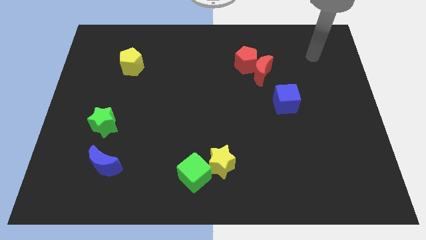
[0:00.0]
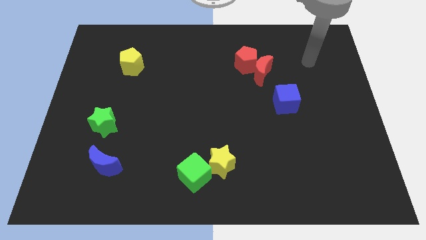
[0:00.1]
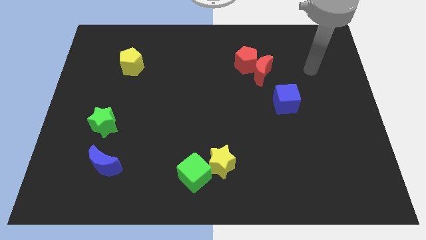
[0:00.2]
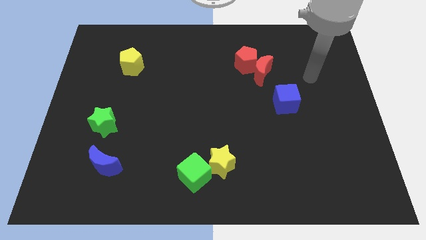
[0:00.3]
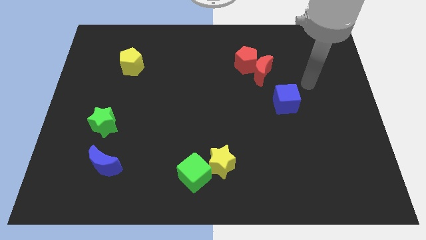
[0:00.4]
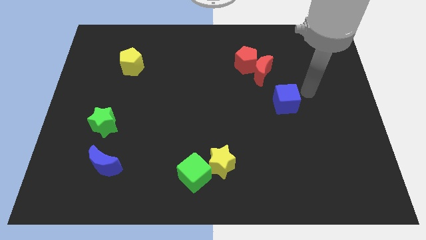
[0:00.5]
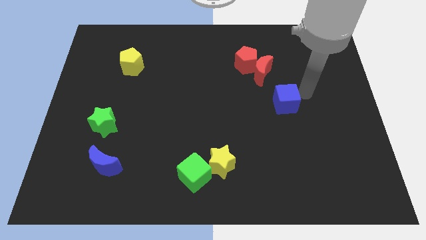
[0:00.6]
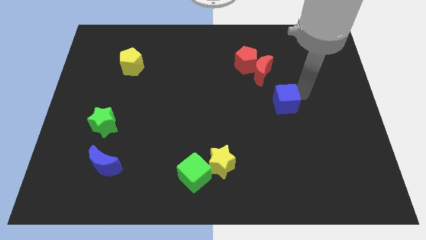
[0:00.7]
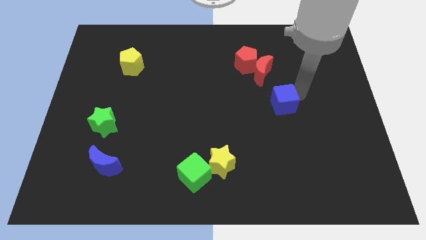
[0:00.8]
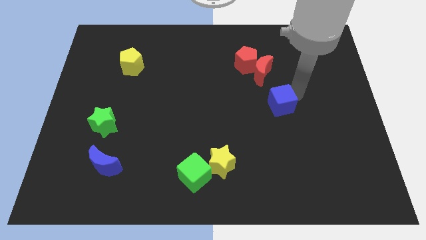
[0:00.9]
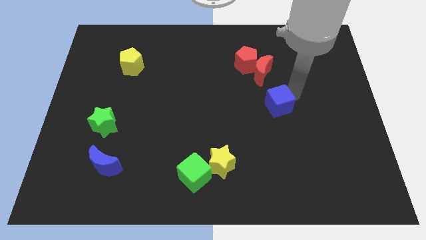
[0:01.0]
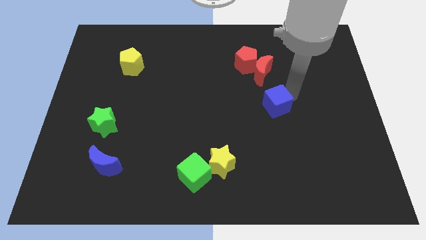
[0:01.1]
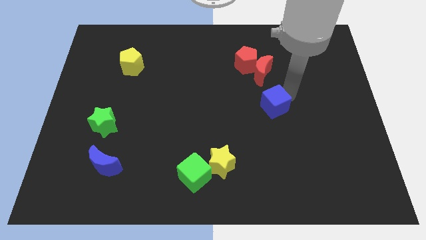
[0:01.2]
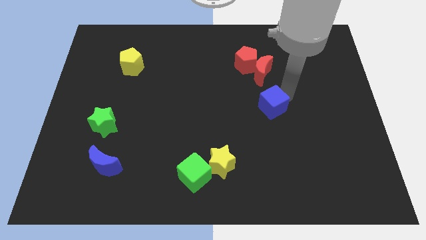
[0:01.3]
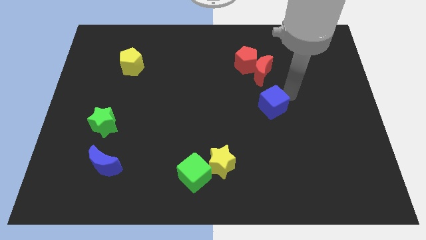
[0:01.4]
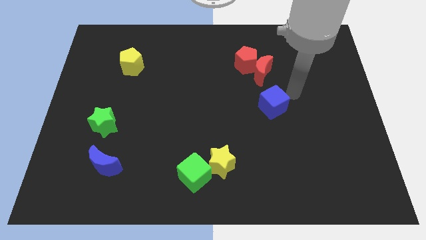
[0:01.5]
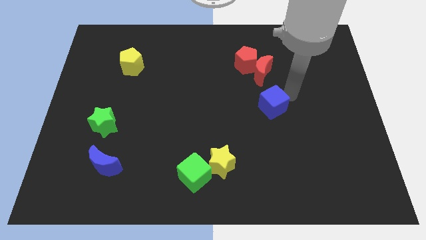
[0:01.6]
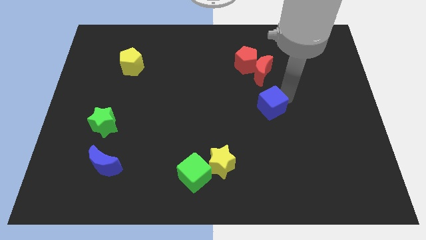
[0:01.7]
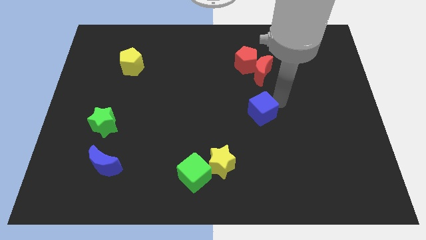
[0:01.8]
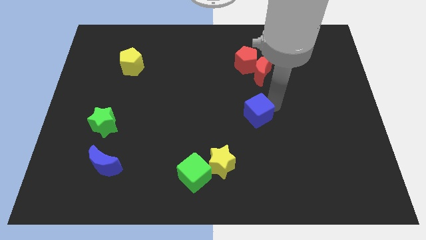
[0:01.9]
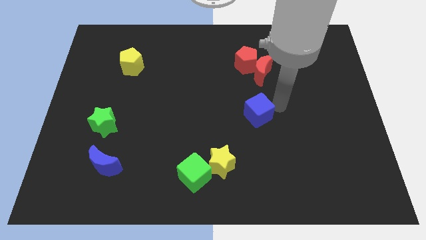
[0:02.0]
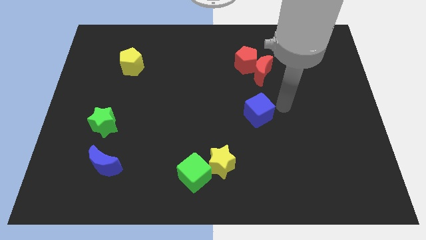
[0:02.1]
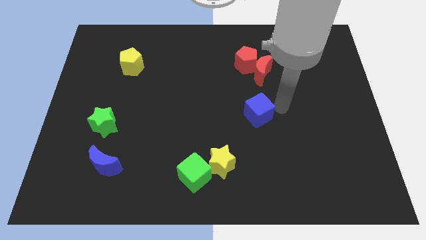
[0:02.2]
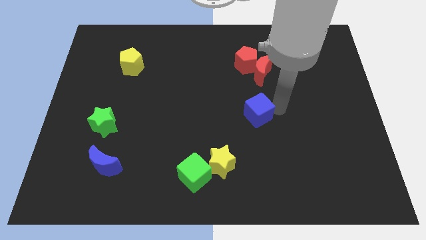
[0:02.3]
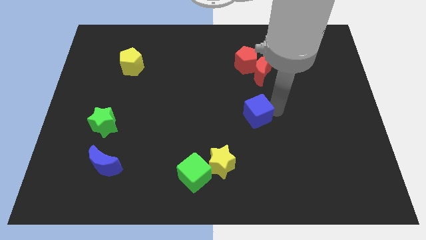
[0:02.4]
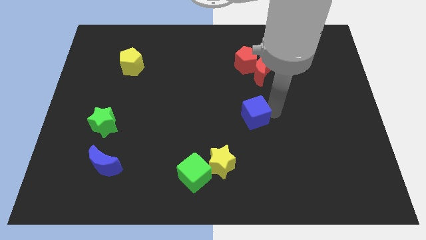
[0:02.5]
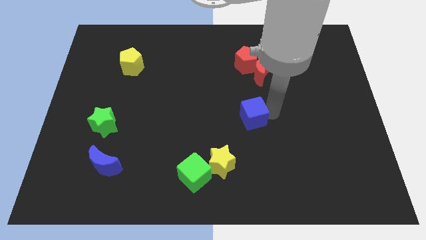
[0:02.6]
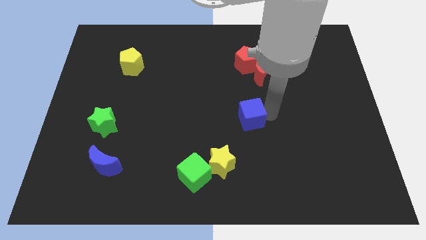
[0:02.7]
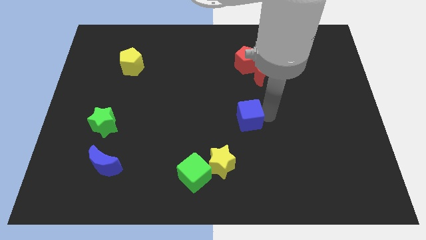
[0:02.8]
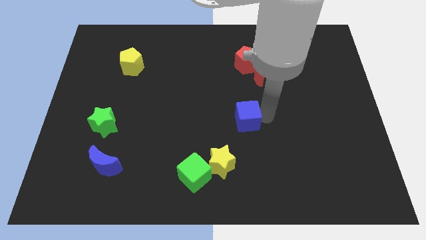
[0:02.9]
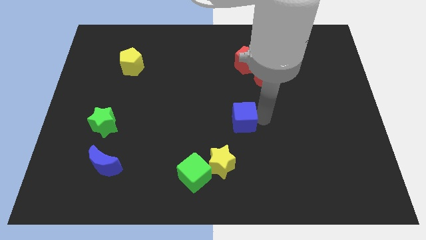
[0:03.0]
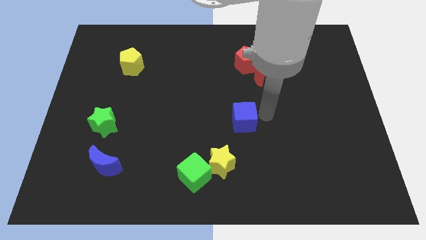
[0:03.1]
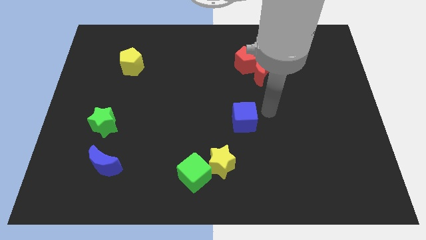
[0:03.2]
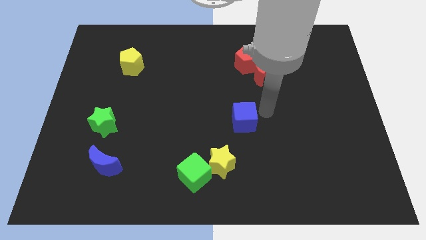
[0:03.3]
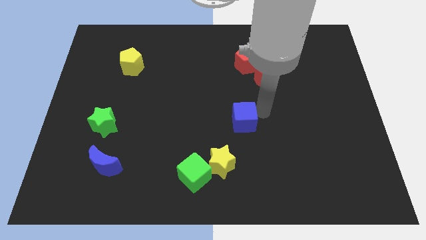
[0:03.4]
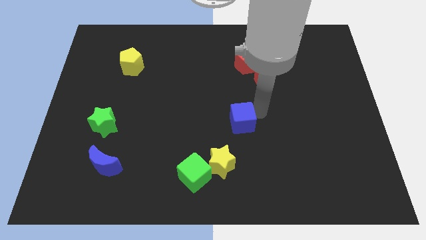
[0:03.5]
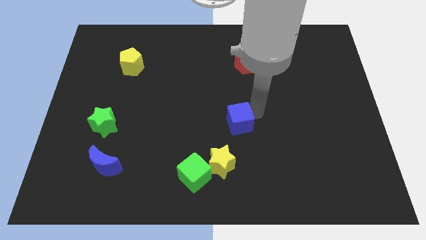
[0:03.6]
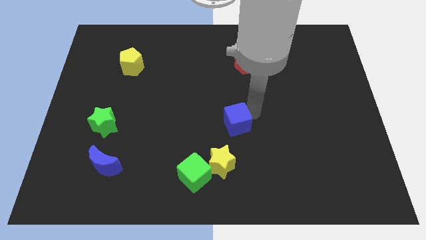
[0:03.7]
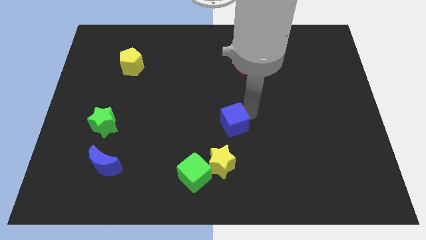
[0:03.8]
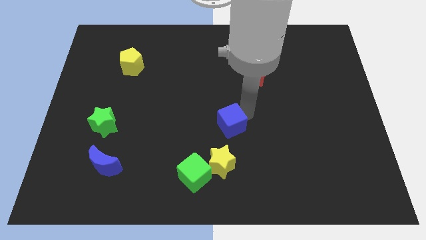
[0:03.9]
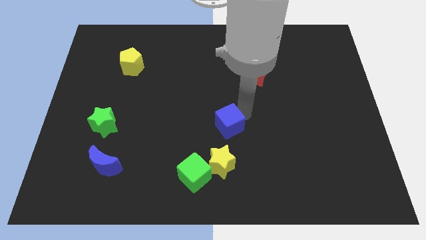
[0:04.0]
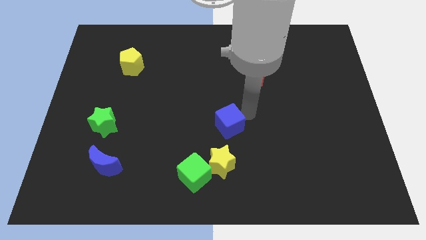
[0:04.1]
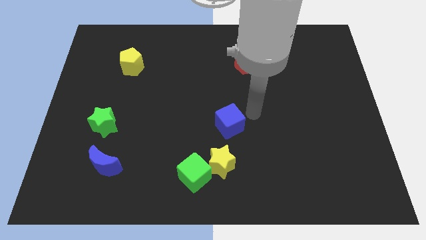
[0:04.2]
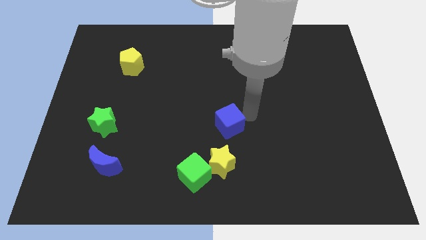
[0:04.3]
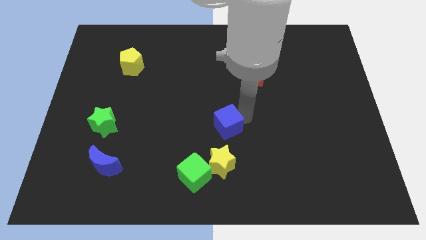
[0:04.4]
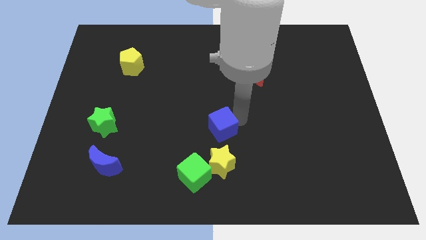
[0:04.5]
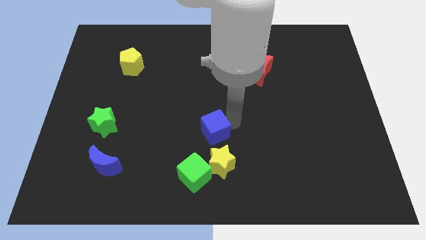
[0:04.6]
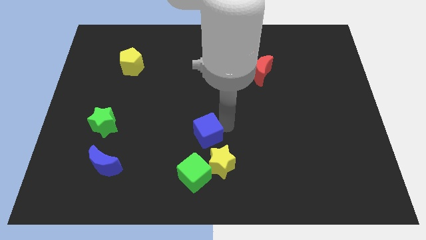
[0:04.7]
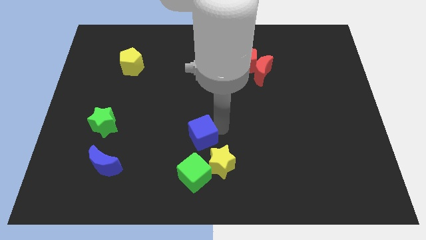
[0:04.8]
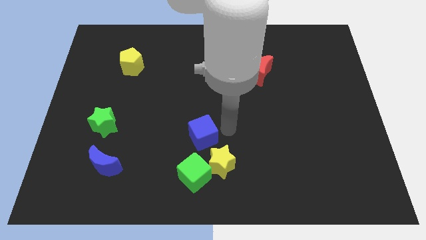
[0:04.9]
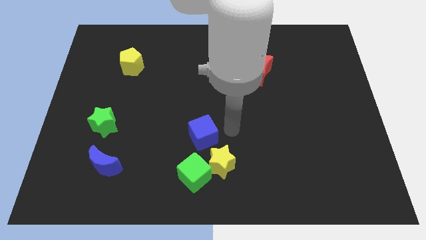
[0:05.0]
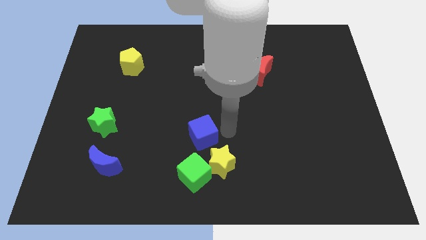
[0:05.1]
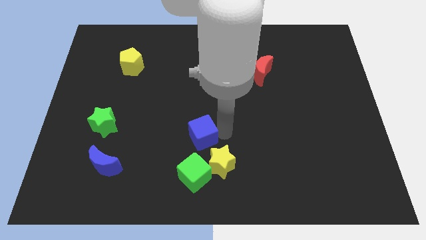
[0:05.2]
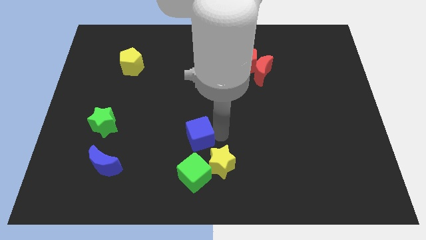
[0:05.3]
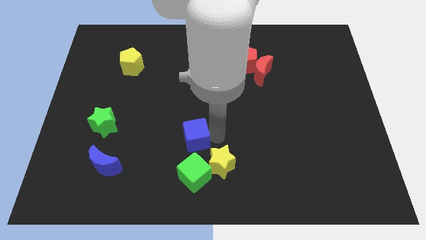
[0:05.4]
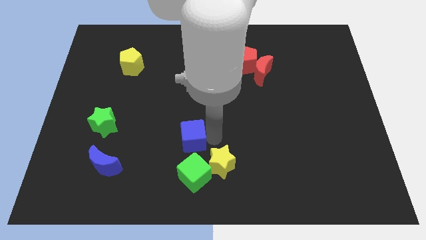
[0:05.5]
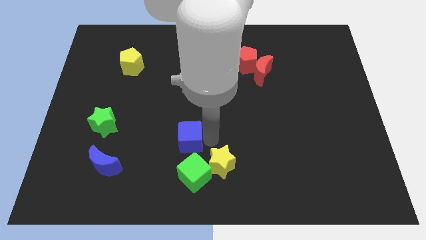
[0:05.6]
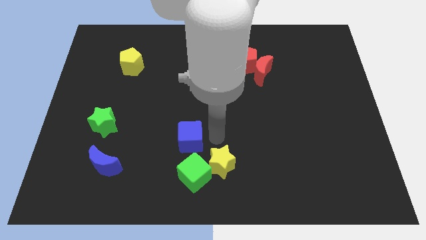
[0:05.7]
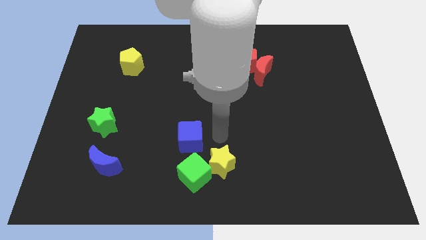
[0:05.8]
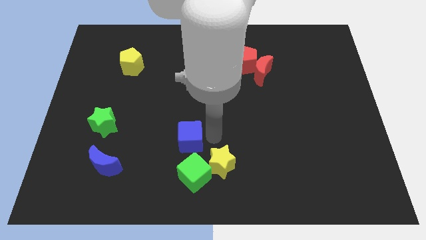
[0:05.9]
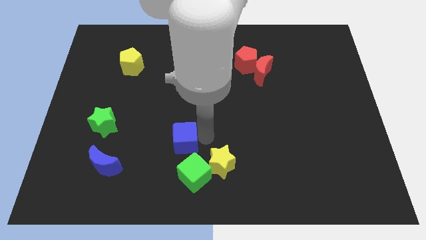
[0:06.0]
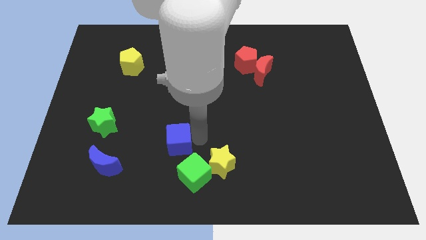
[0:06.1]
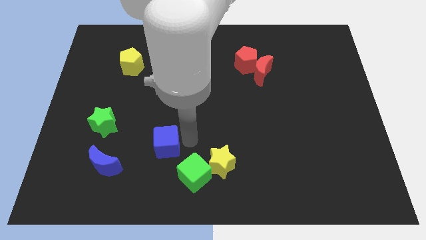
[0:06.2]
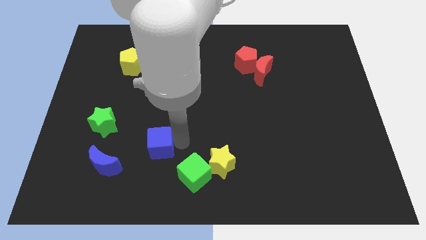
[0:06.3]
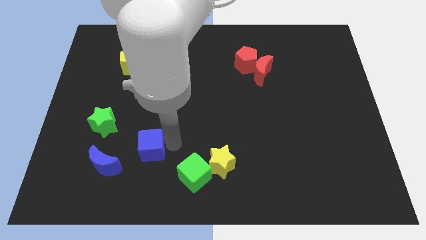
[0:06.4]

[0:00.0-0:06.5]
push the blue cube to the top right side of the blue moon
